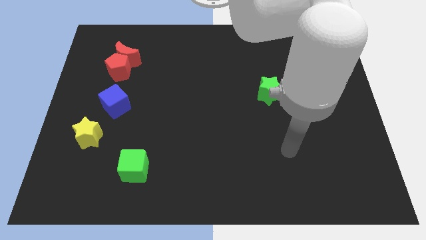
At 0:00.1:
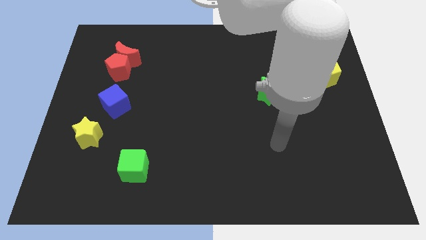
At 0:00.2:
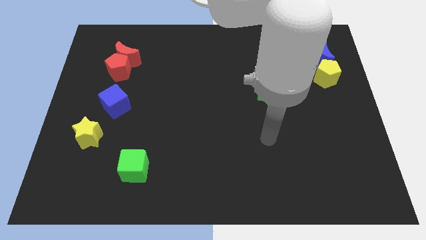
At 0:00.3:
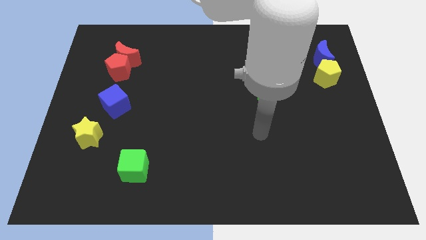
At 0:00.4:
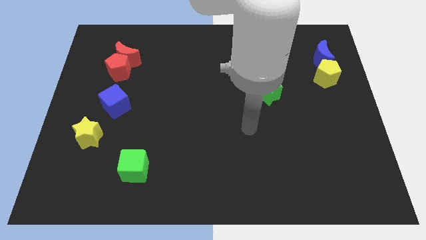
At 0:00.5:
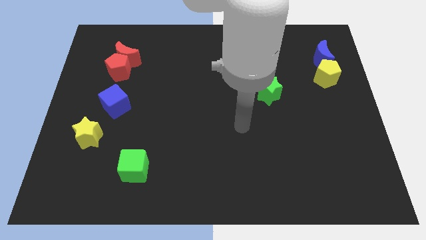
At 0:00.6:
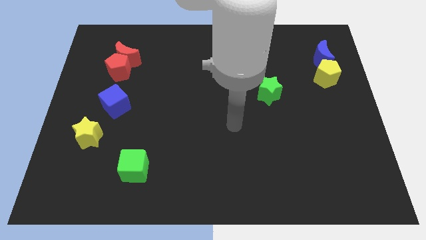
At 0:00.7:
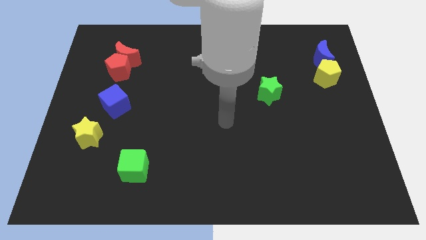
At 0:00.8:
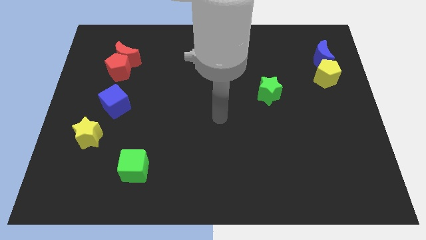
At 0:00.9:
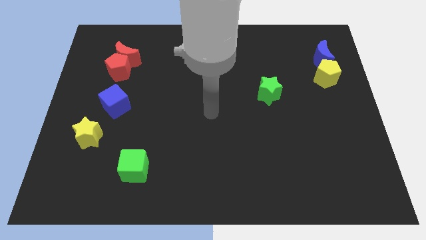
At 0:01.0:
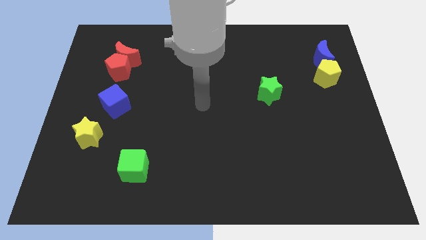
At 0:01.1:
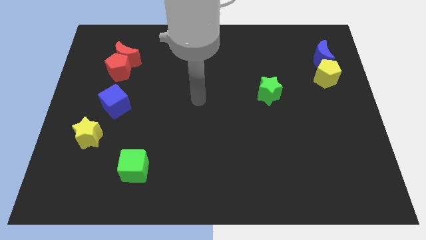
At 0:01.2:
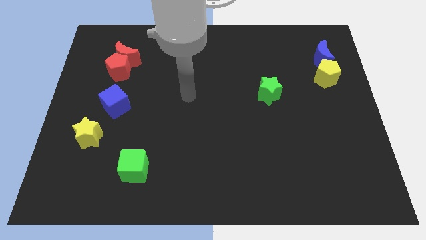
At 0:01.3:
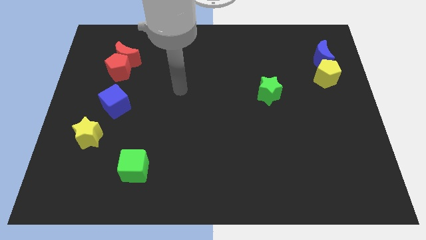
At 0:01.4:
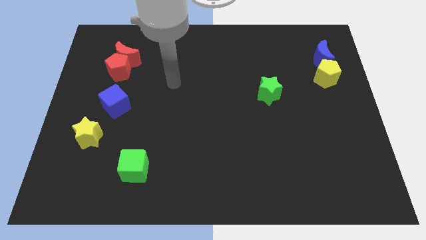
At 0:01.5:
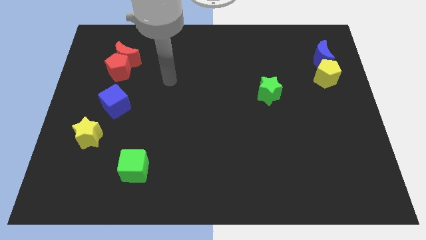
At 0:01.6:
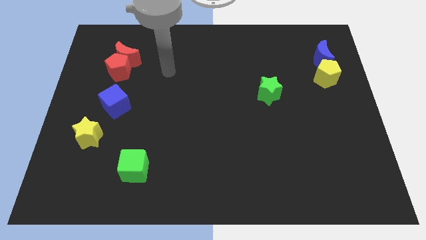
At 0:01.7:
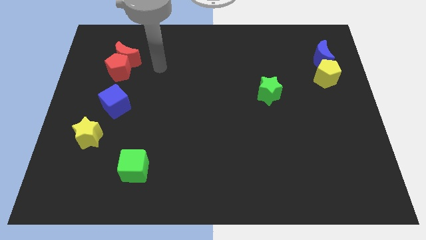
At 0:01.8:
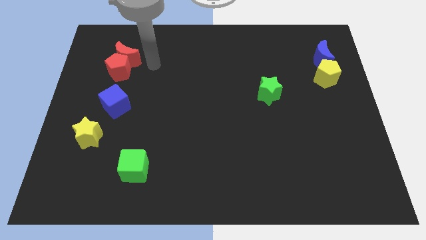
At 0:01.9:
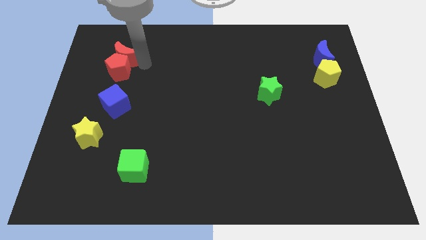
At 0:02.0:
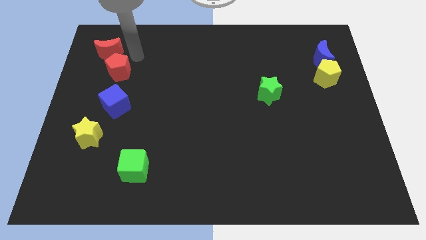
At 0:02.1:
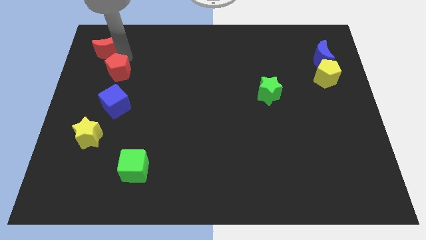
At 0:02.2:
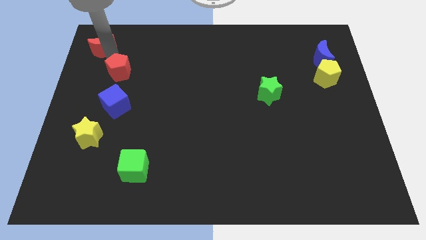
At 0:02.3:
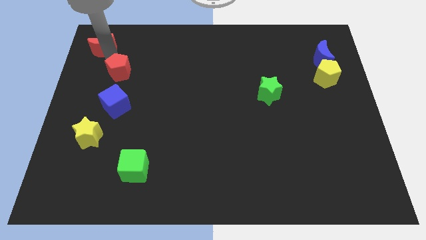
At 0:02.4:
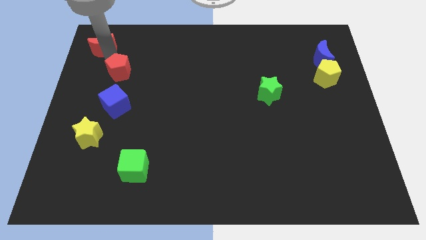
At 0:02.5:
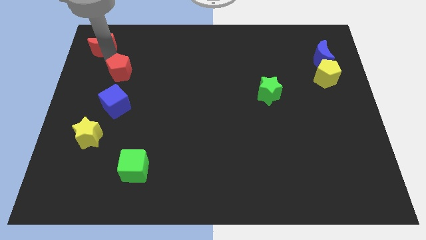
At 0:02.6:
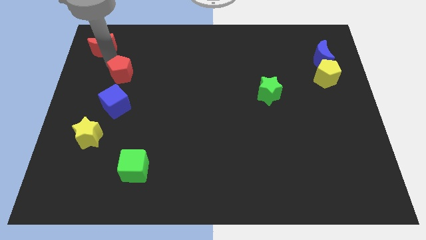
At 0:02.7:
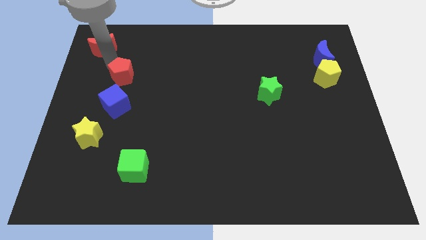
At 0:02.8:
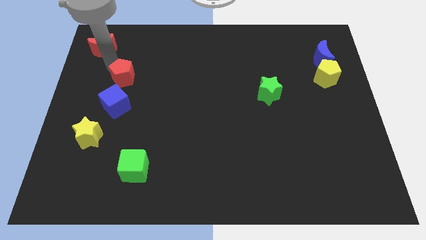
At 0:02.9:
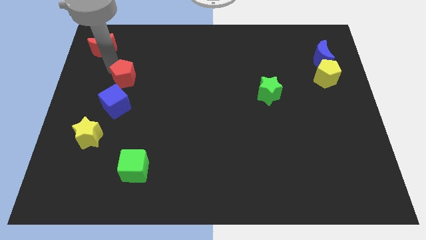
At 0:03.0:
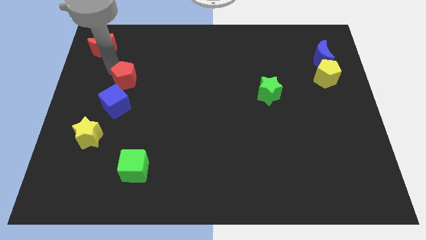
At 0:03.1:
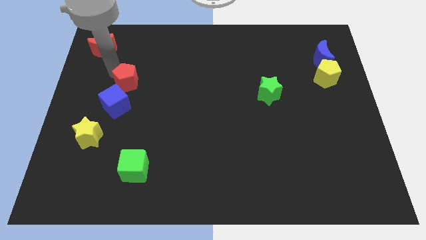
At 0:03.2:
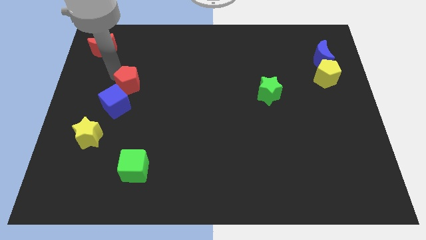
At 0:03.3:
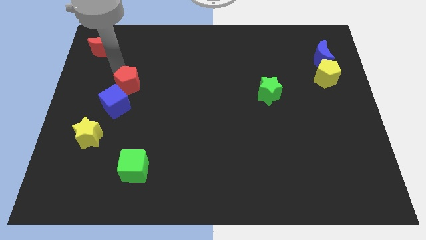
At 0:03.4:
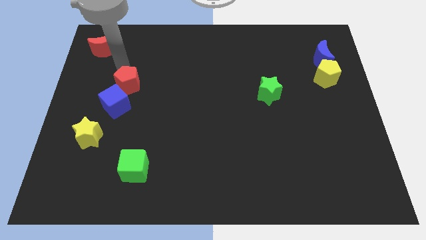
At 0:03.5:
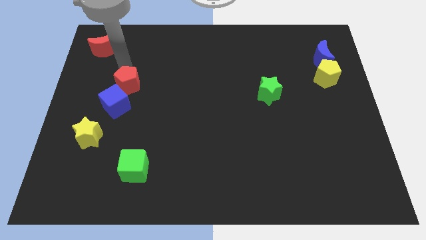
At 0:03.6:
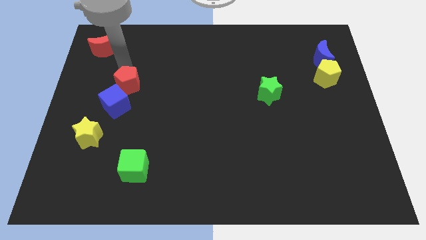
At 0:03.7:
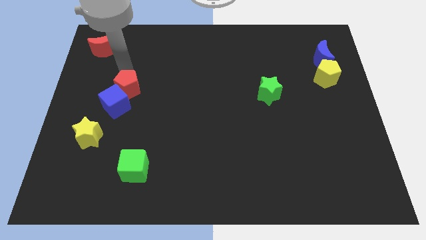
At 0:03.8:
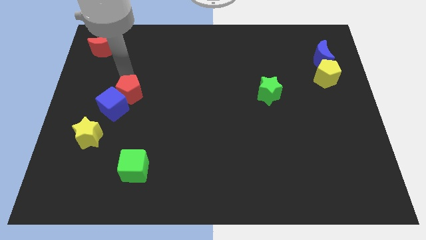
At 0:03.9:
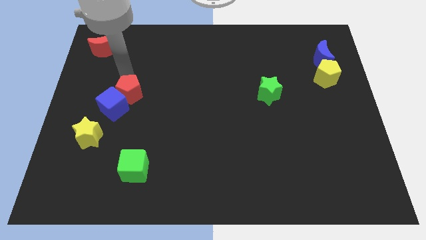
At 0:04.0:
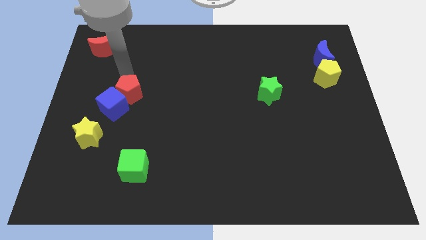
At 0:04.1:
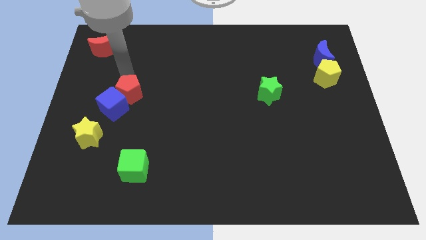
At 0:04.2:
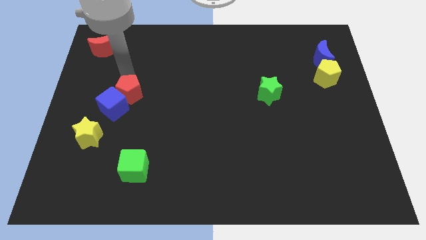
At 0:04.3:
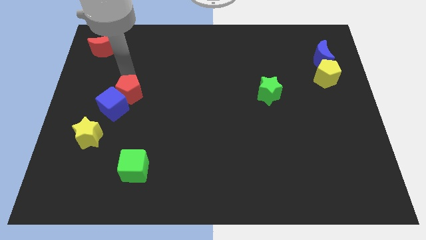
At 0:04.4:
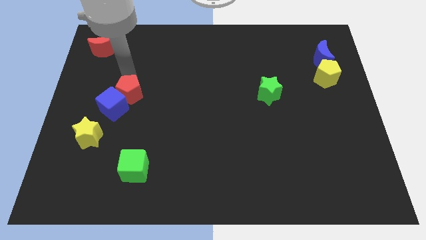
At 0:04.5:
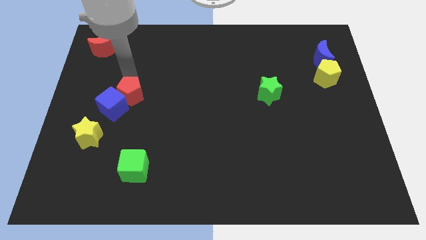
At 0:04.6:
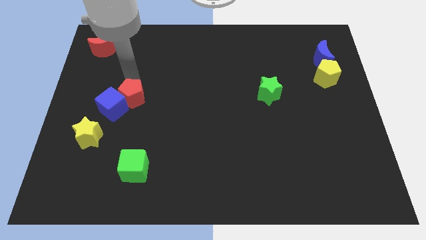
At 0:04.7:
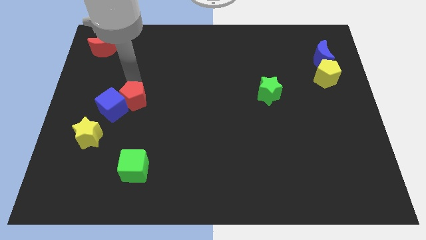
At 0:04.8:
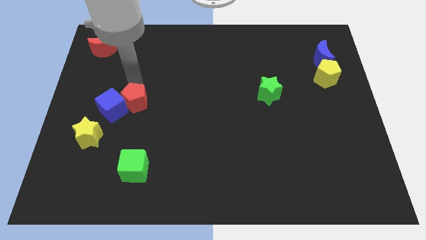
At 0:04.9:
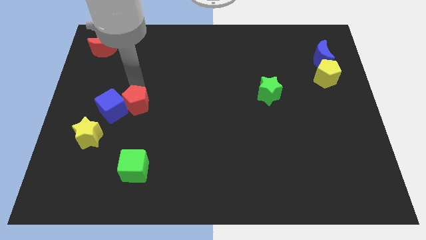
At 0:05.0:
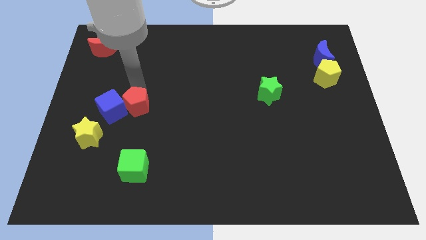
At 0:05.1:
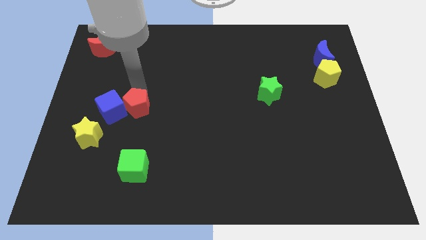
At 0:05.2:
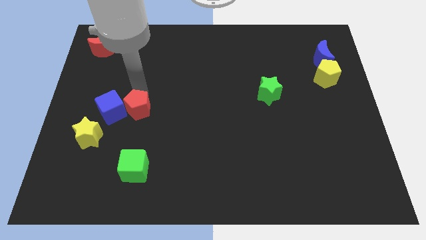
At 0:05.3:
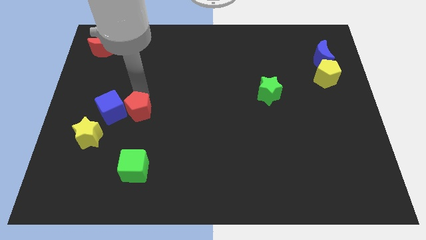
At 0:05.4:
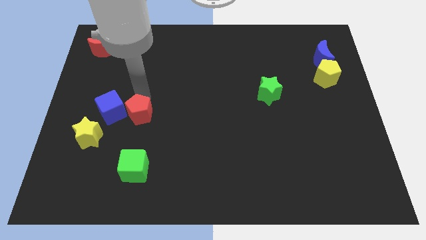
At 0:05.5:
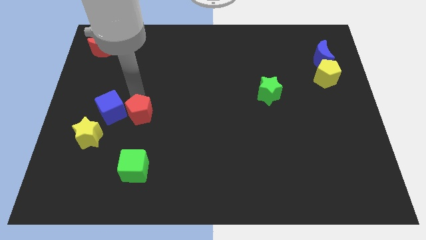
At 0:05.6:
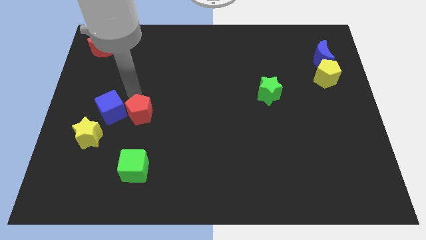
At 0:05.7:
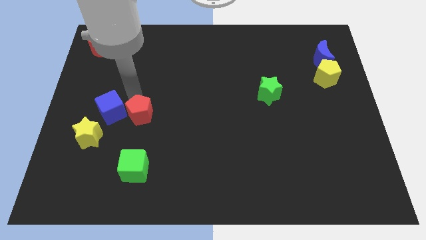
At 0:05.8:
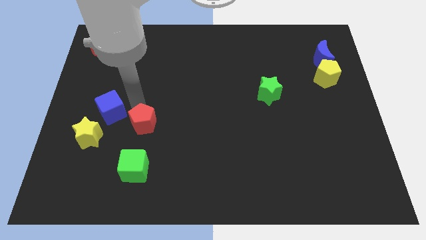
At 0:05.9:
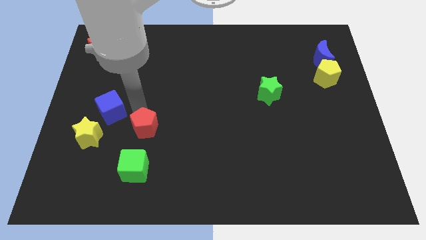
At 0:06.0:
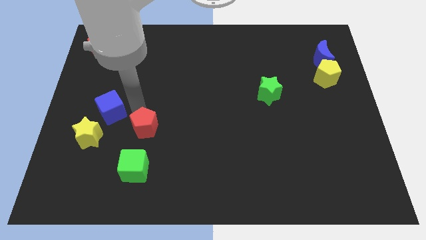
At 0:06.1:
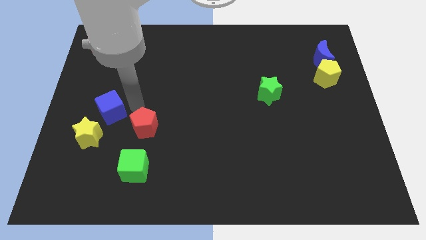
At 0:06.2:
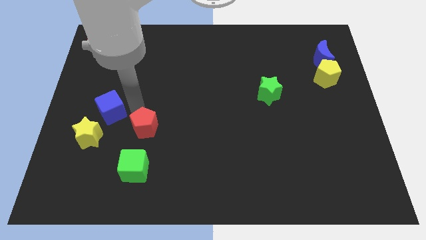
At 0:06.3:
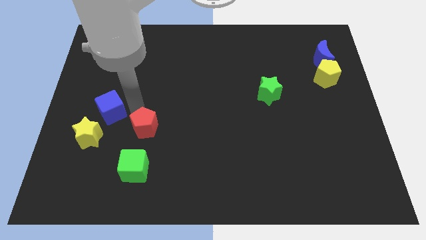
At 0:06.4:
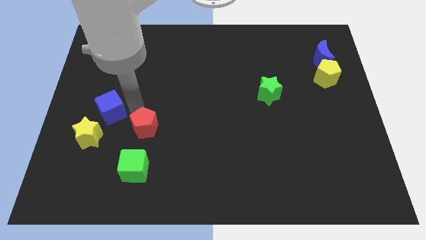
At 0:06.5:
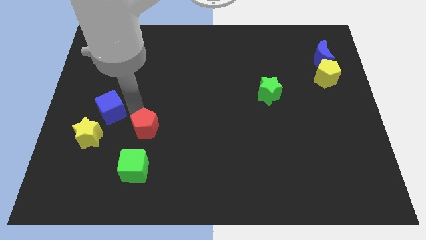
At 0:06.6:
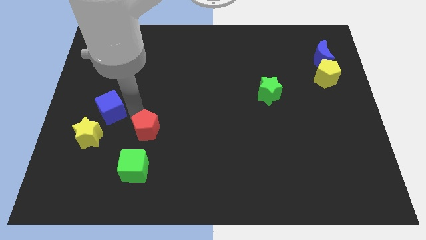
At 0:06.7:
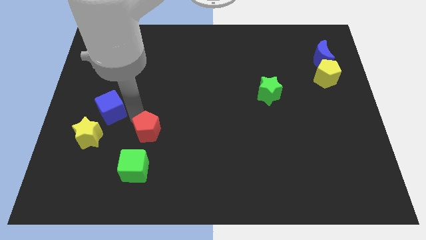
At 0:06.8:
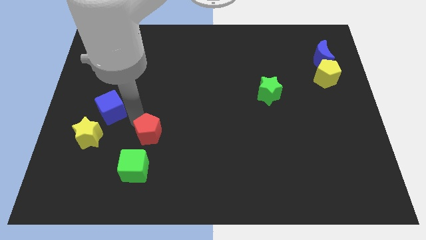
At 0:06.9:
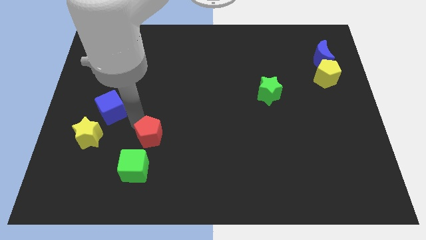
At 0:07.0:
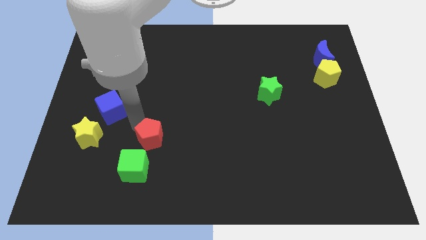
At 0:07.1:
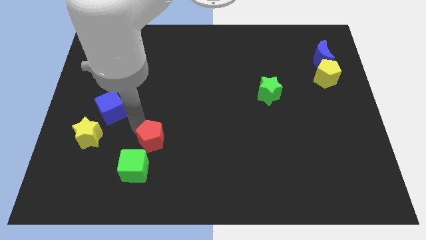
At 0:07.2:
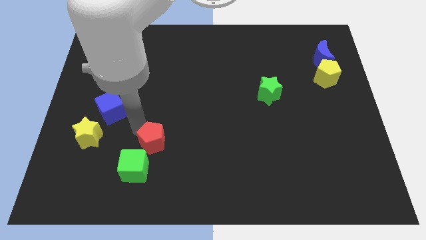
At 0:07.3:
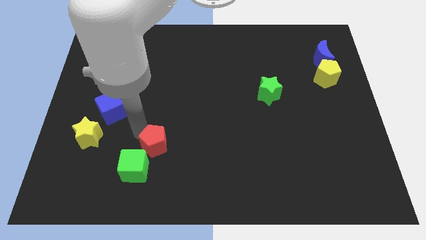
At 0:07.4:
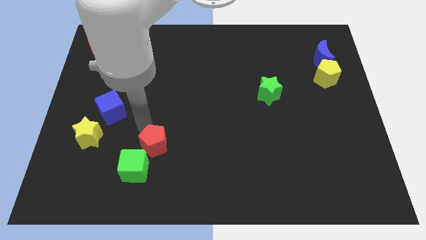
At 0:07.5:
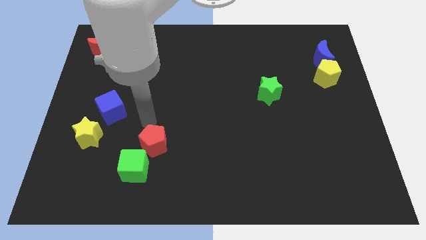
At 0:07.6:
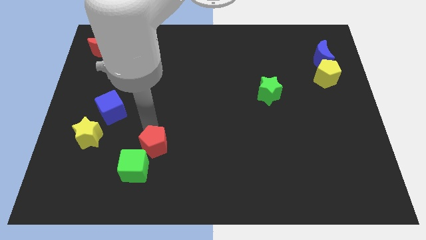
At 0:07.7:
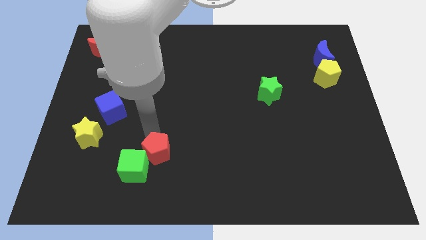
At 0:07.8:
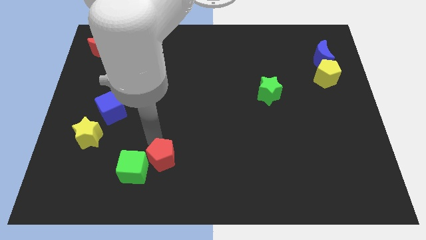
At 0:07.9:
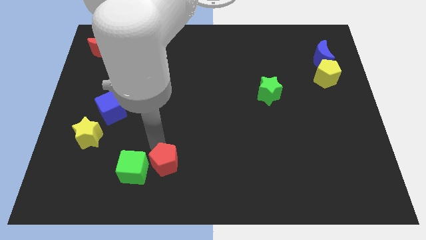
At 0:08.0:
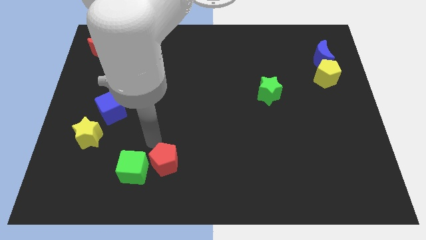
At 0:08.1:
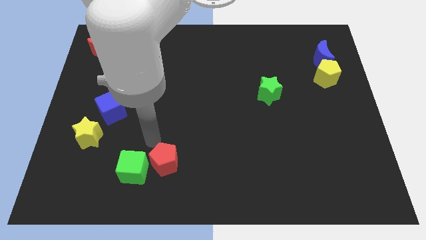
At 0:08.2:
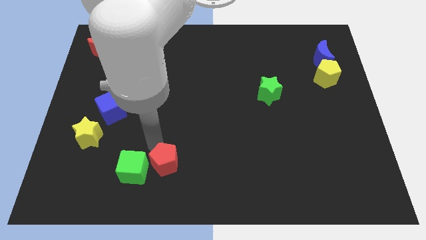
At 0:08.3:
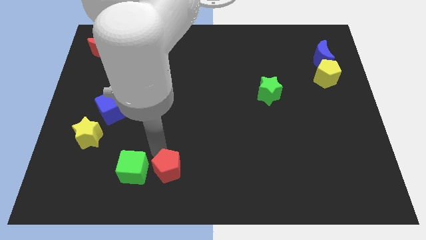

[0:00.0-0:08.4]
put the red pentagon to the bottom
